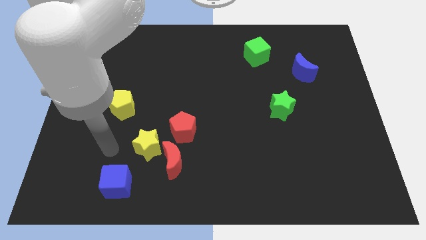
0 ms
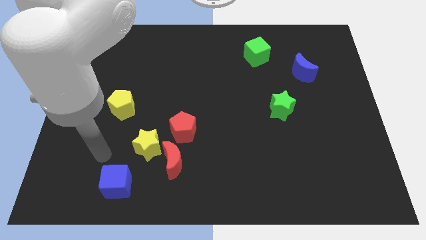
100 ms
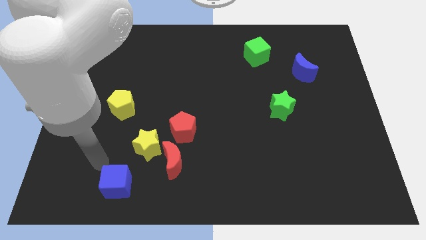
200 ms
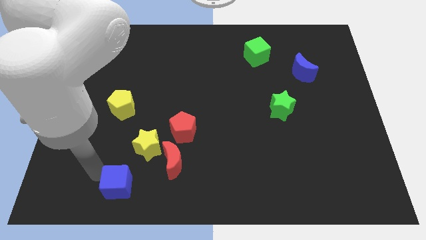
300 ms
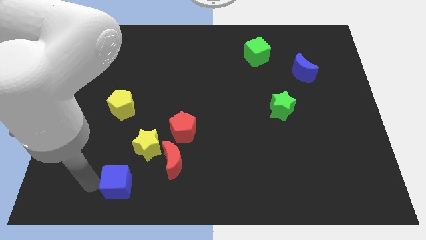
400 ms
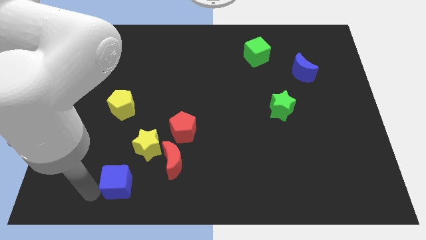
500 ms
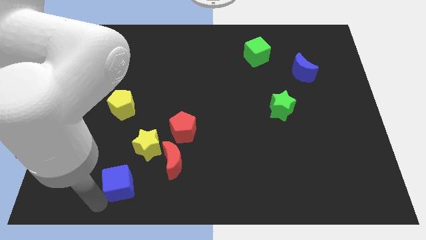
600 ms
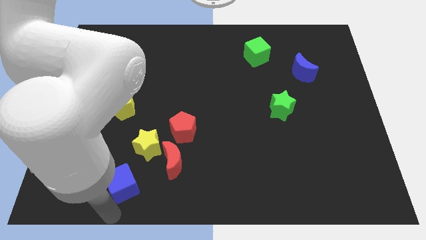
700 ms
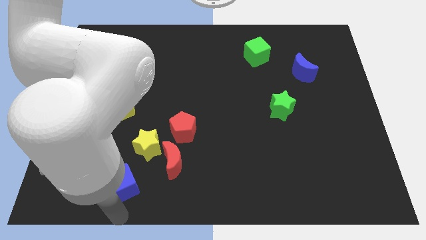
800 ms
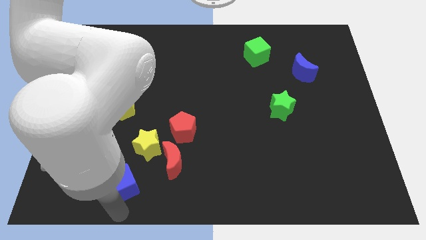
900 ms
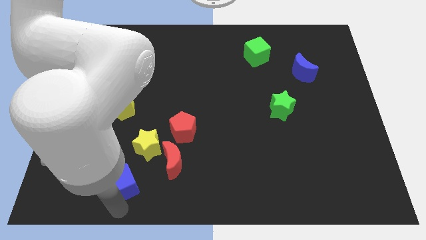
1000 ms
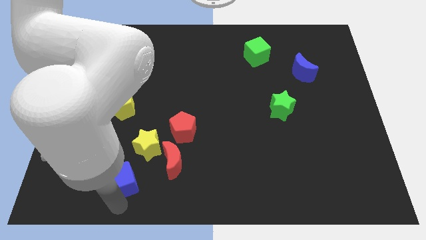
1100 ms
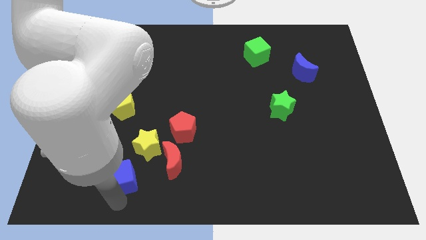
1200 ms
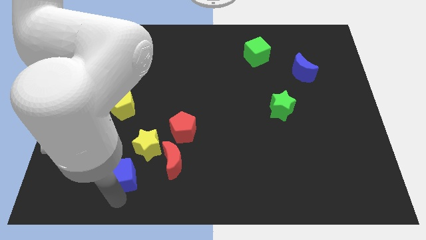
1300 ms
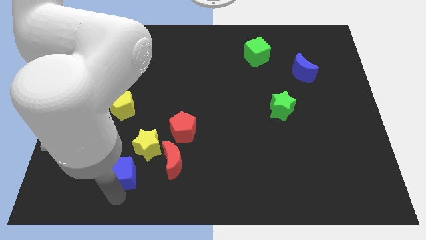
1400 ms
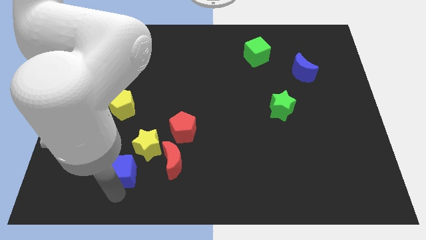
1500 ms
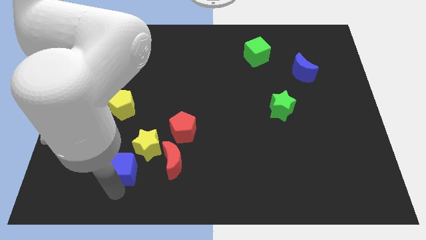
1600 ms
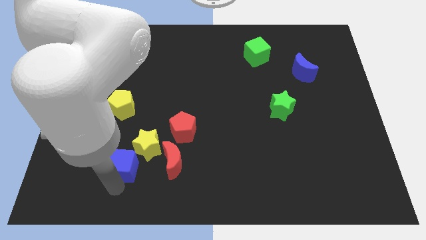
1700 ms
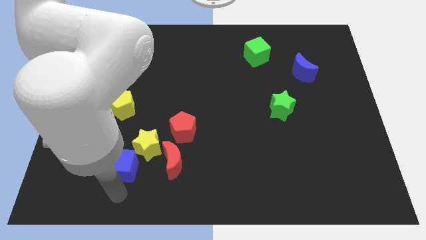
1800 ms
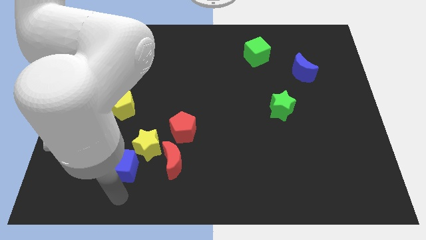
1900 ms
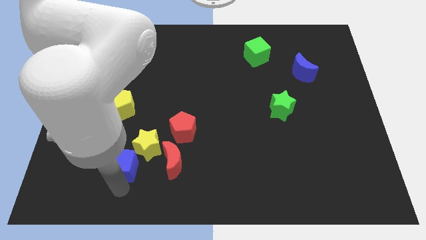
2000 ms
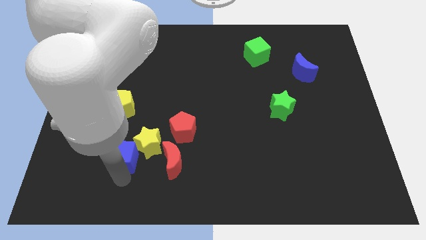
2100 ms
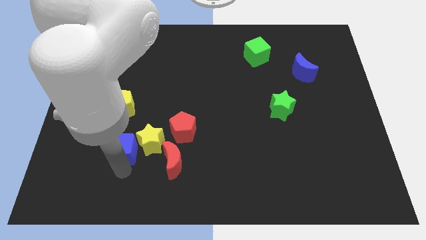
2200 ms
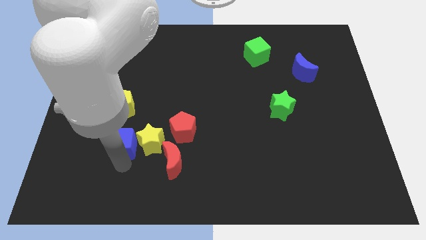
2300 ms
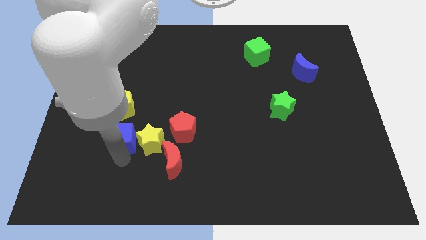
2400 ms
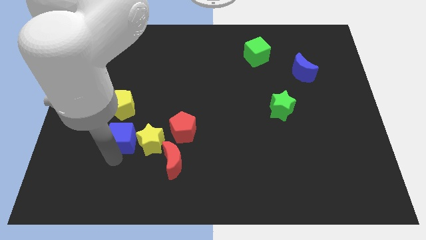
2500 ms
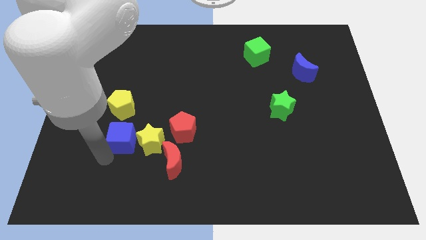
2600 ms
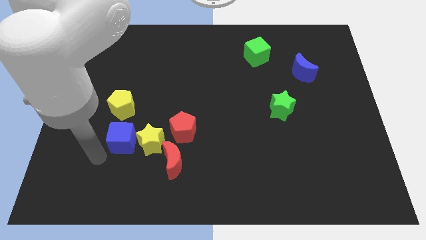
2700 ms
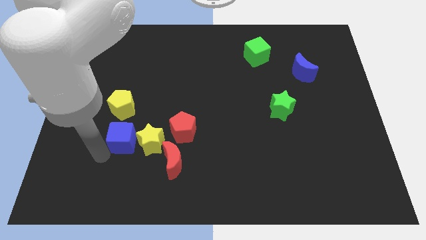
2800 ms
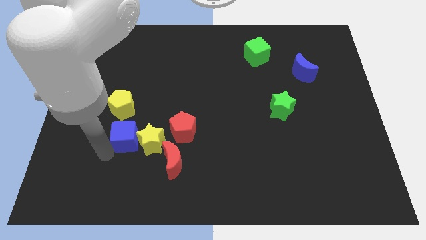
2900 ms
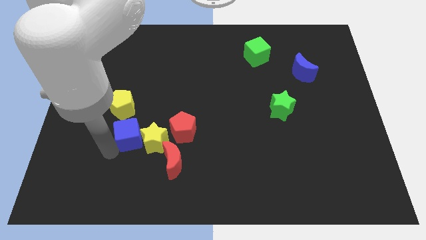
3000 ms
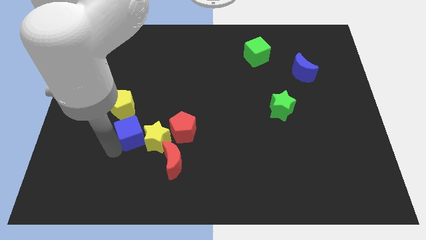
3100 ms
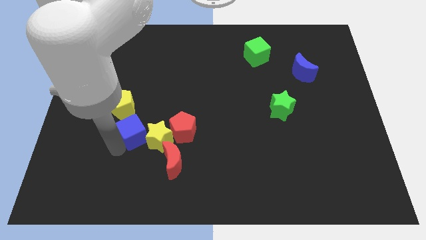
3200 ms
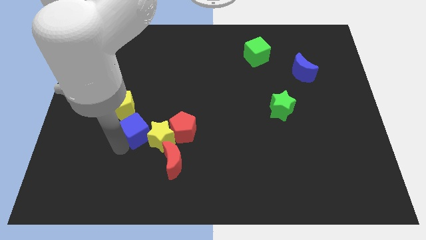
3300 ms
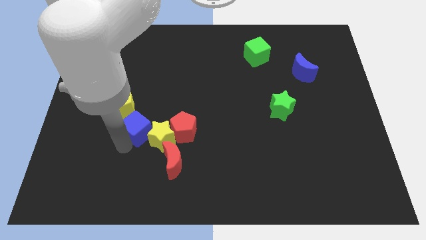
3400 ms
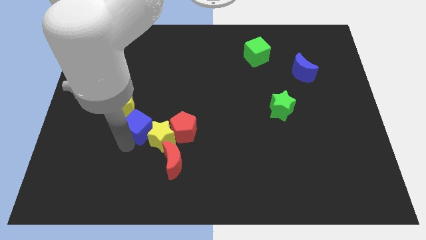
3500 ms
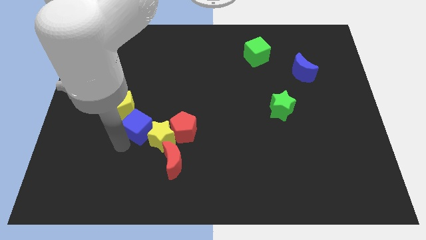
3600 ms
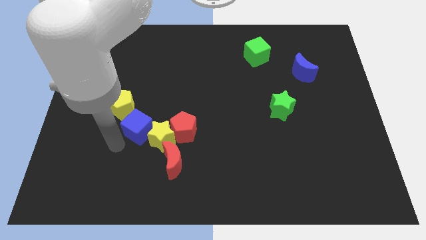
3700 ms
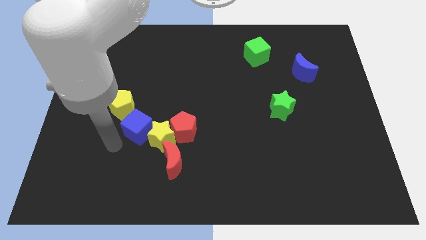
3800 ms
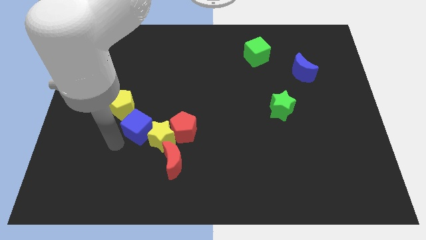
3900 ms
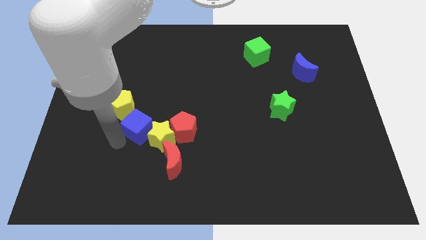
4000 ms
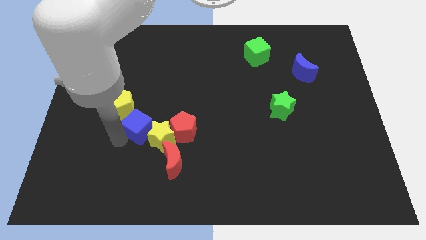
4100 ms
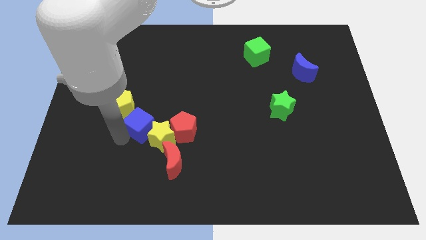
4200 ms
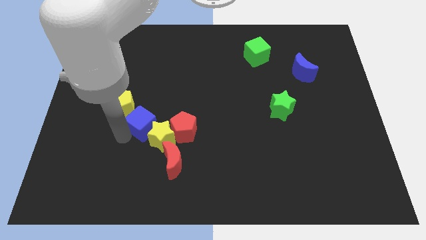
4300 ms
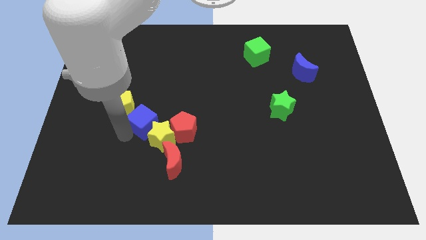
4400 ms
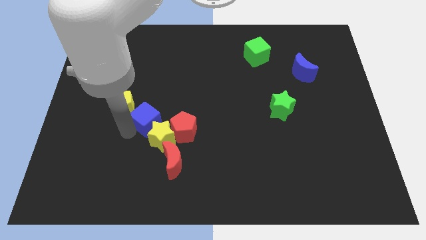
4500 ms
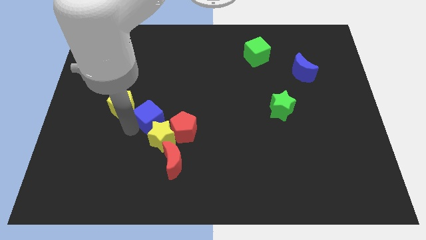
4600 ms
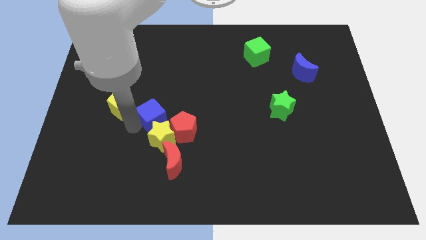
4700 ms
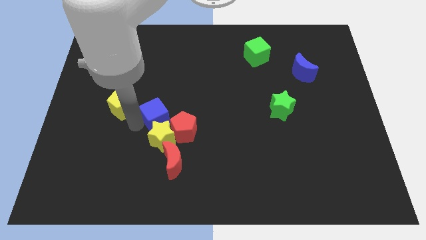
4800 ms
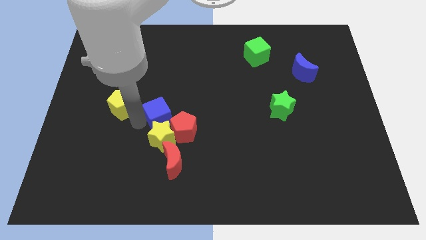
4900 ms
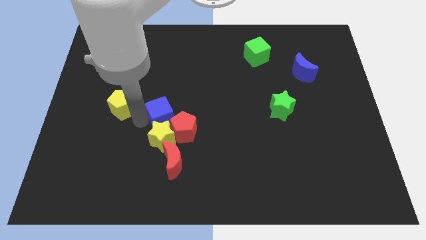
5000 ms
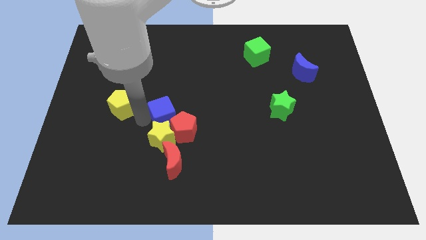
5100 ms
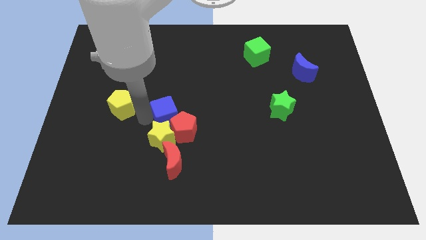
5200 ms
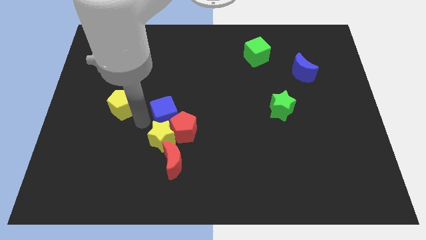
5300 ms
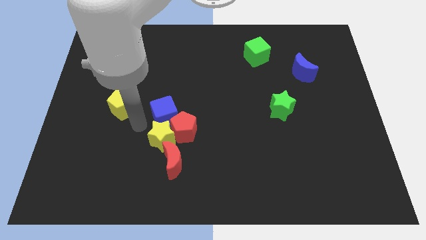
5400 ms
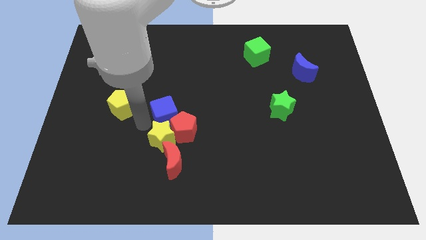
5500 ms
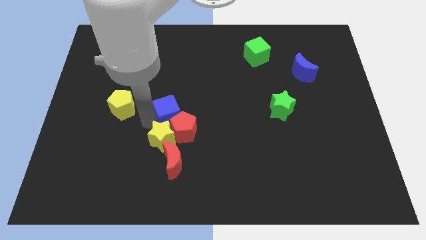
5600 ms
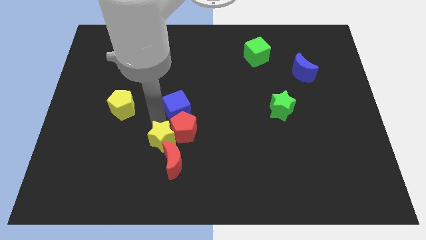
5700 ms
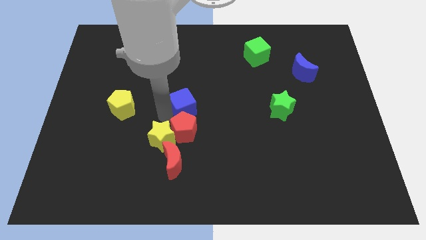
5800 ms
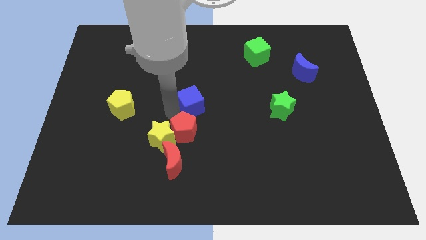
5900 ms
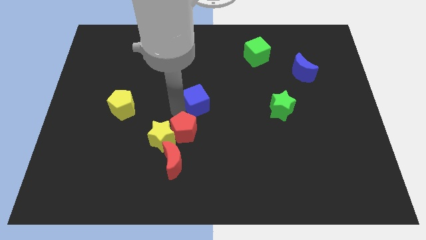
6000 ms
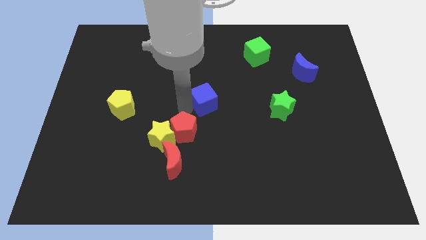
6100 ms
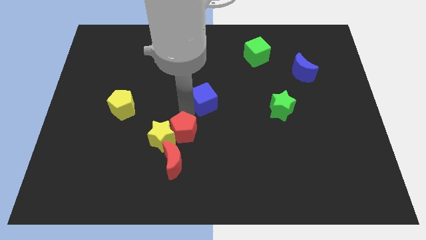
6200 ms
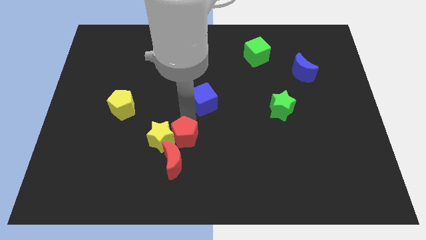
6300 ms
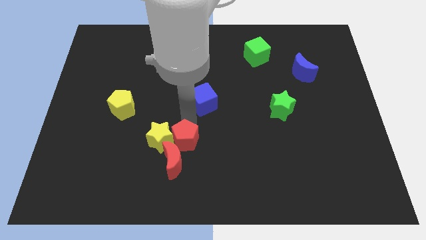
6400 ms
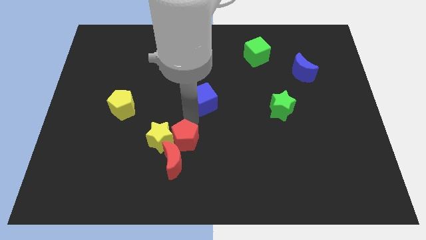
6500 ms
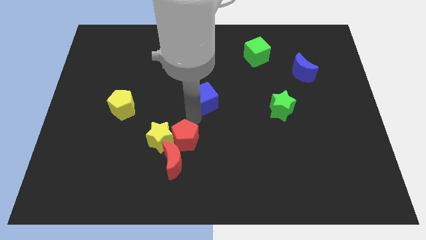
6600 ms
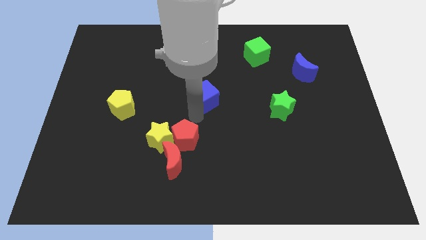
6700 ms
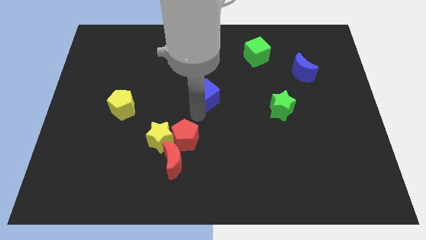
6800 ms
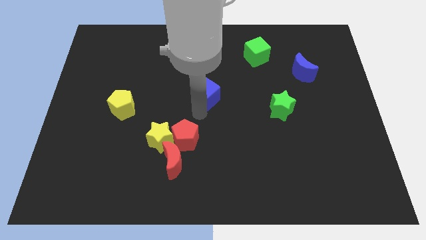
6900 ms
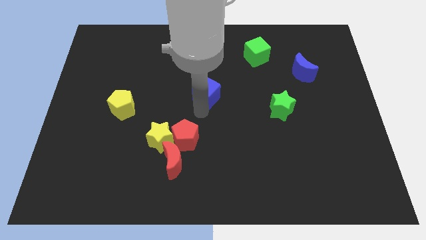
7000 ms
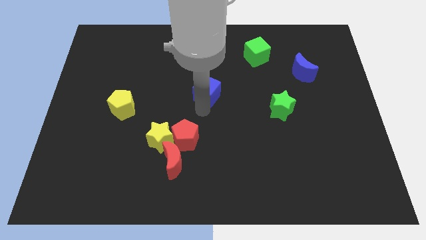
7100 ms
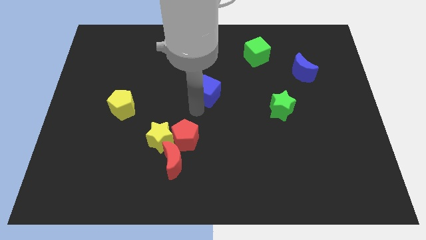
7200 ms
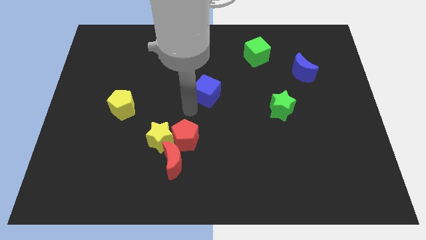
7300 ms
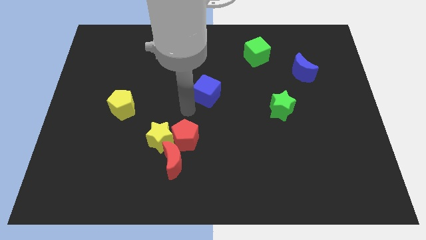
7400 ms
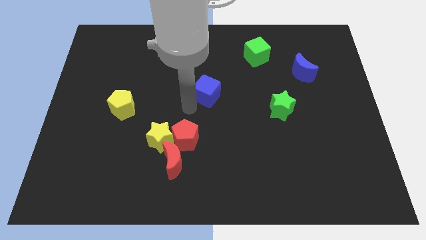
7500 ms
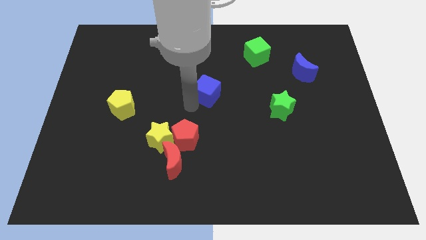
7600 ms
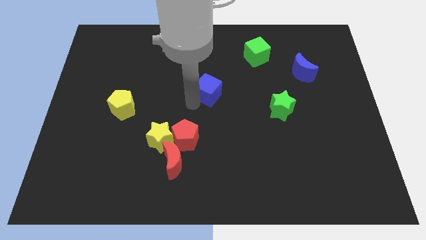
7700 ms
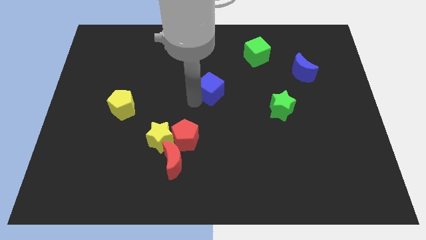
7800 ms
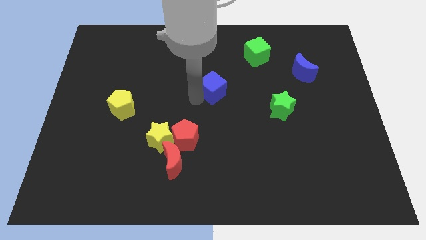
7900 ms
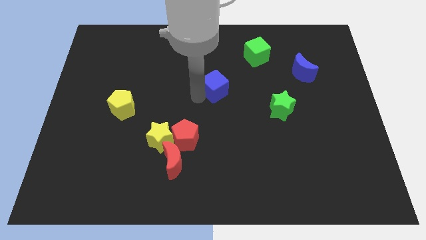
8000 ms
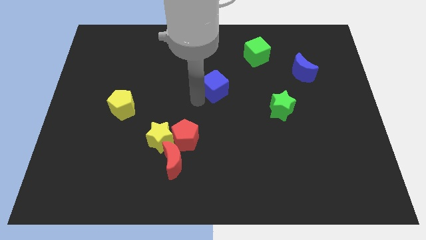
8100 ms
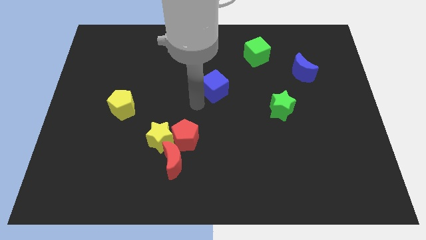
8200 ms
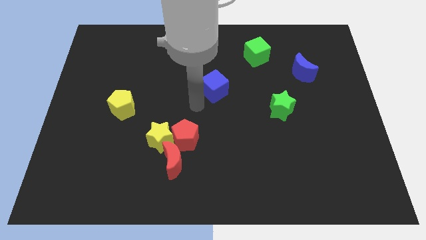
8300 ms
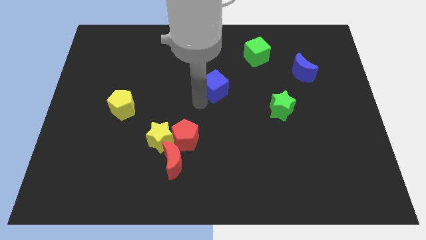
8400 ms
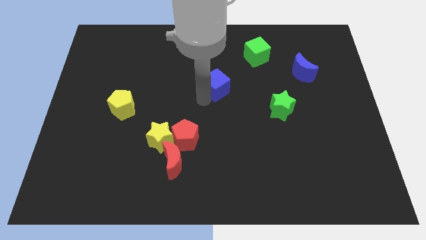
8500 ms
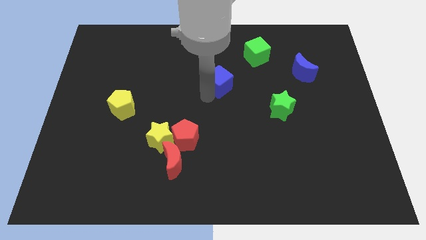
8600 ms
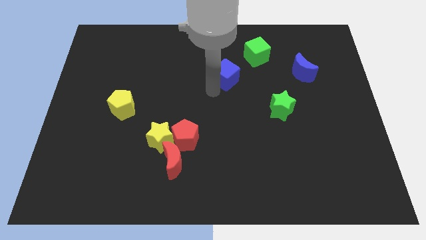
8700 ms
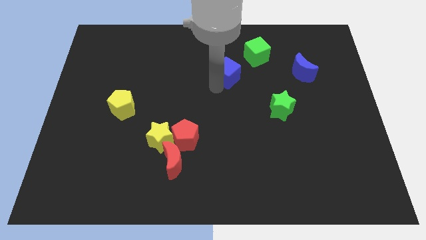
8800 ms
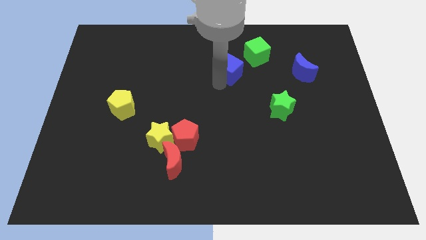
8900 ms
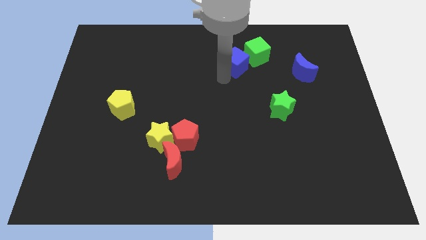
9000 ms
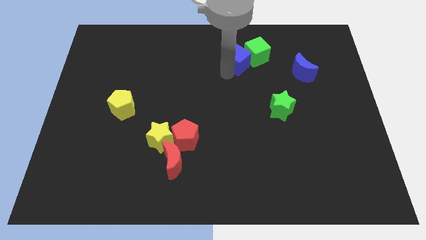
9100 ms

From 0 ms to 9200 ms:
slide the blue cube close to the green cube
